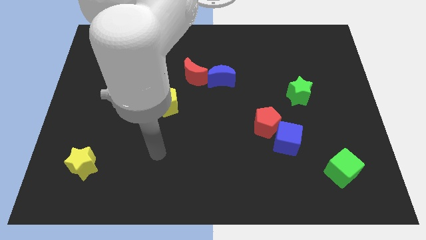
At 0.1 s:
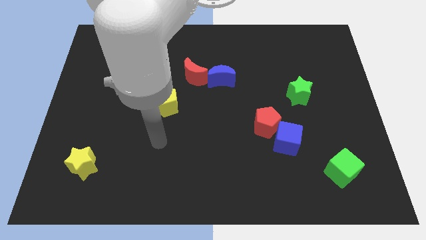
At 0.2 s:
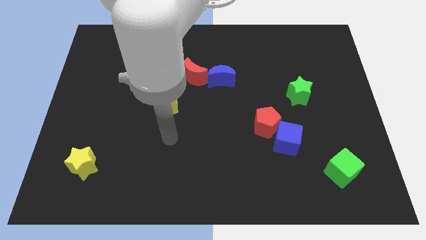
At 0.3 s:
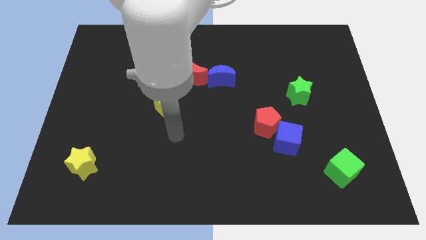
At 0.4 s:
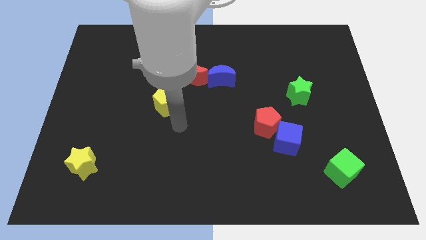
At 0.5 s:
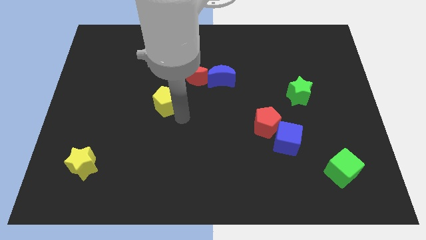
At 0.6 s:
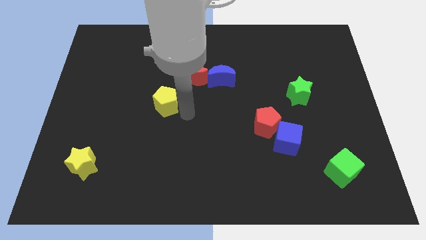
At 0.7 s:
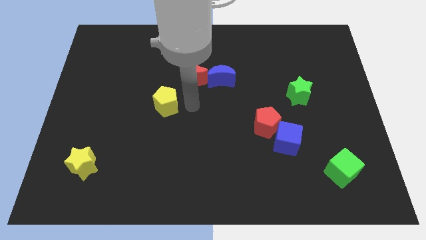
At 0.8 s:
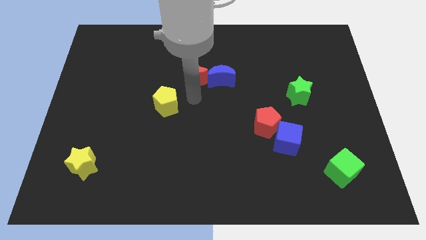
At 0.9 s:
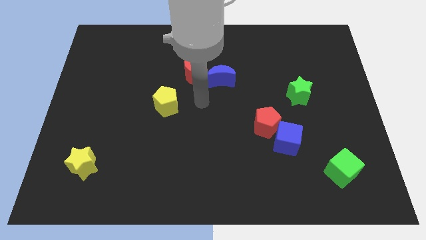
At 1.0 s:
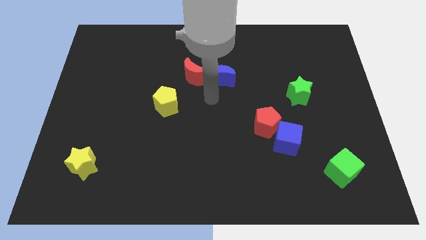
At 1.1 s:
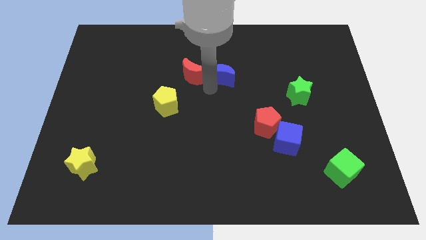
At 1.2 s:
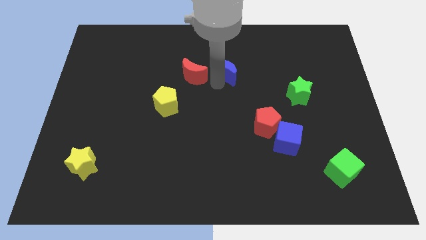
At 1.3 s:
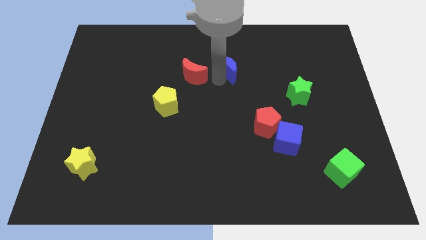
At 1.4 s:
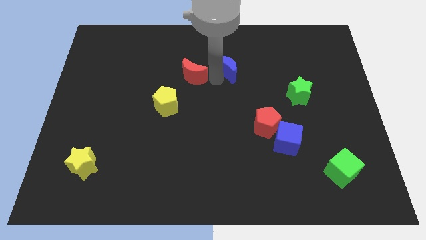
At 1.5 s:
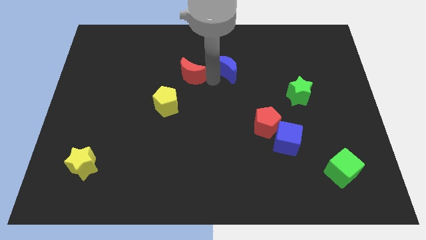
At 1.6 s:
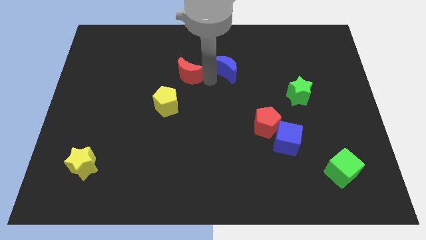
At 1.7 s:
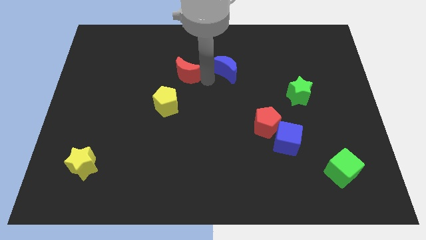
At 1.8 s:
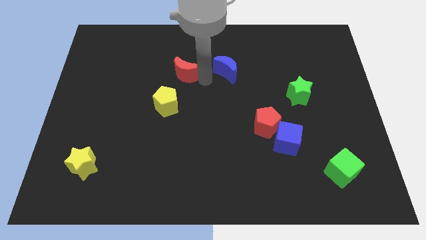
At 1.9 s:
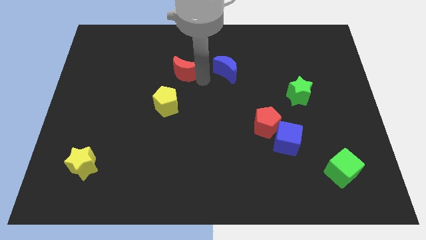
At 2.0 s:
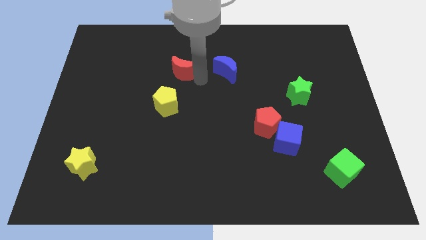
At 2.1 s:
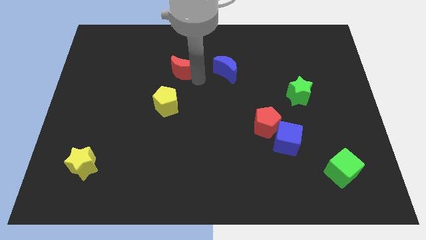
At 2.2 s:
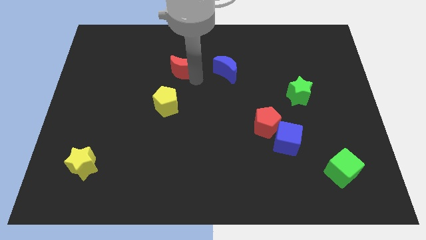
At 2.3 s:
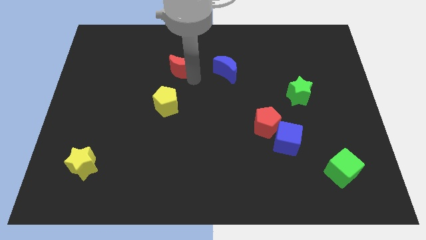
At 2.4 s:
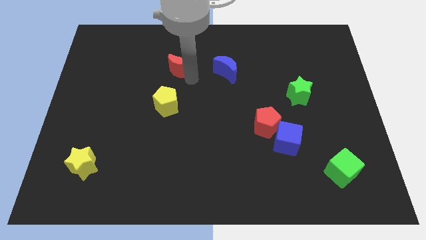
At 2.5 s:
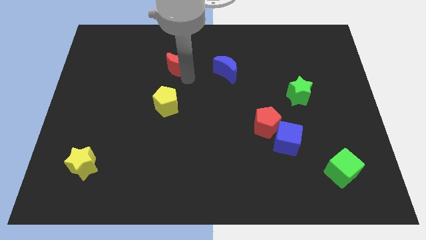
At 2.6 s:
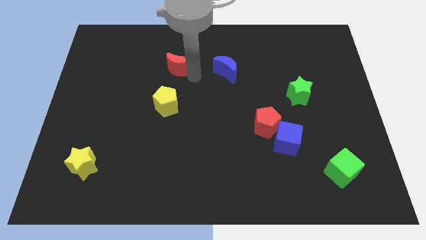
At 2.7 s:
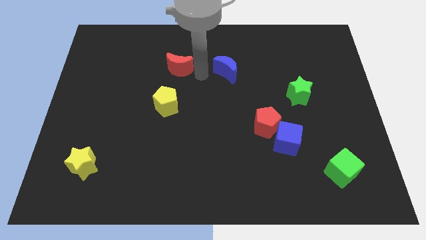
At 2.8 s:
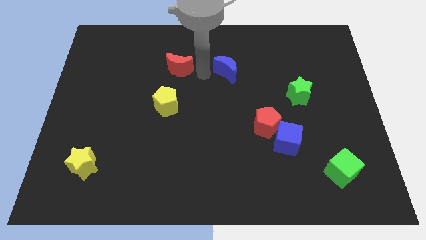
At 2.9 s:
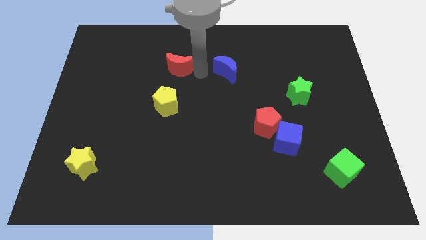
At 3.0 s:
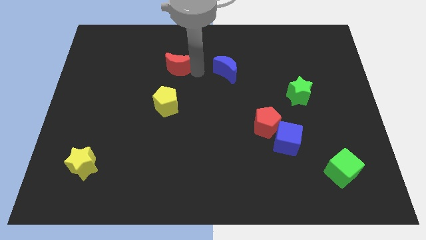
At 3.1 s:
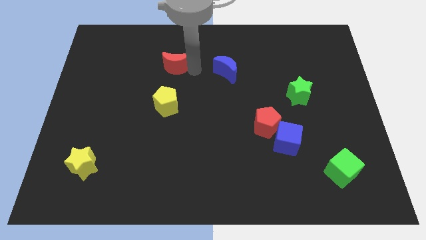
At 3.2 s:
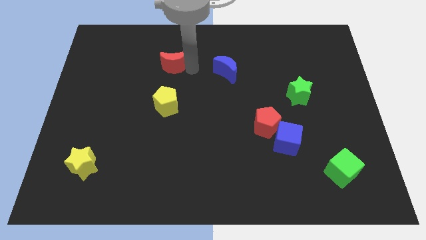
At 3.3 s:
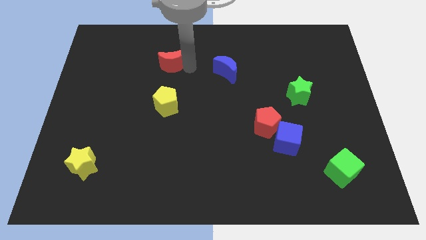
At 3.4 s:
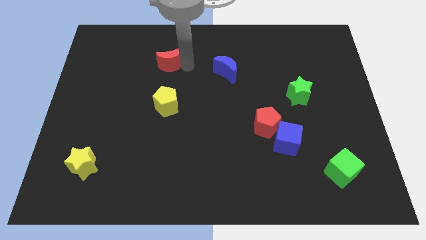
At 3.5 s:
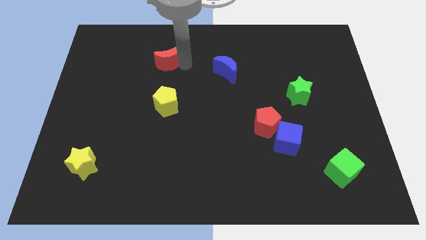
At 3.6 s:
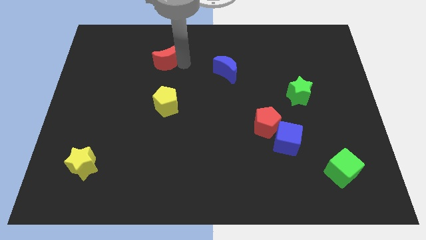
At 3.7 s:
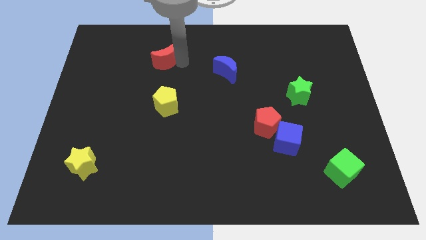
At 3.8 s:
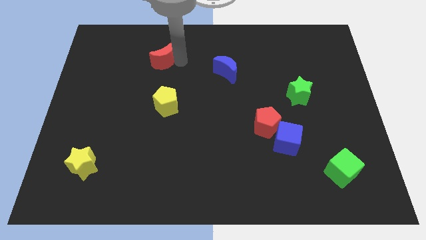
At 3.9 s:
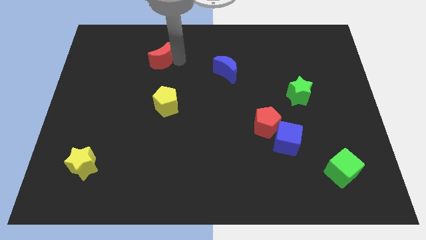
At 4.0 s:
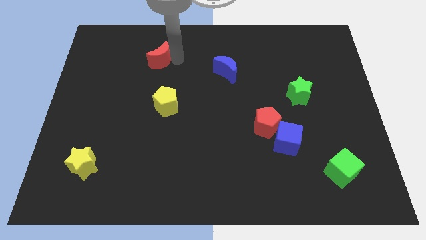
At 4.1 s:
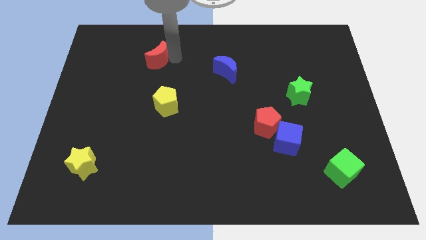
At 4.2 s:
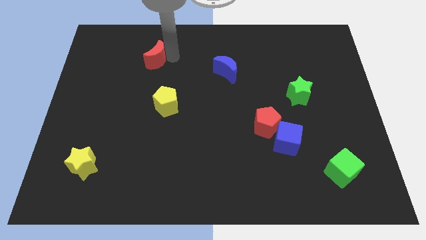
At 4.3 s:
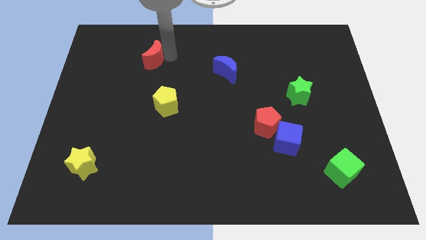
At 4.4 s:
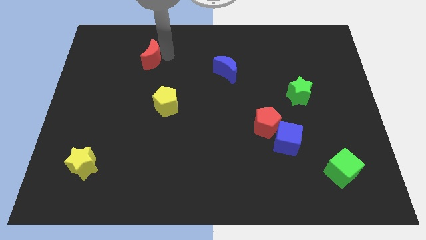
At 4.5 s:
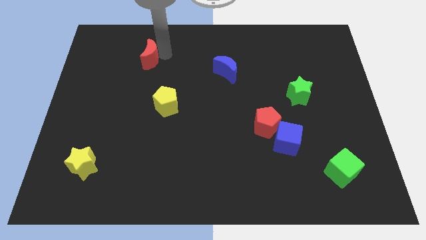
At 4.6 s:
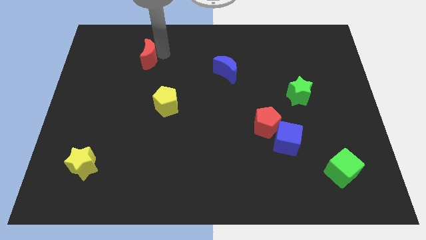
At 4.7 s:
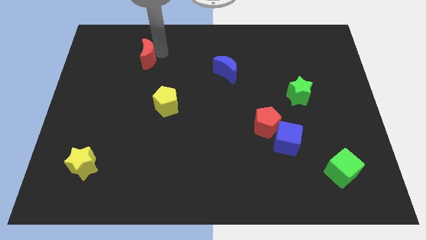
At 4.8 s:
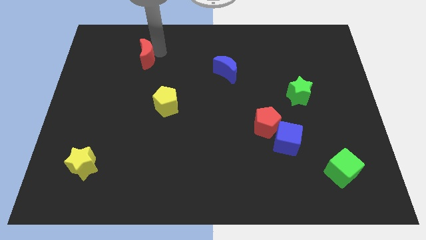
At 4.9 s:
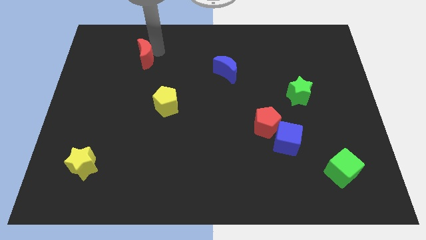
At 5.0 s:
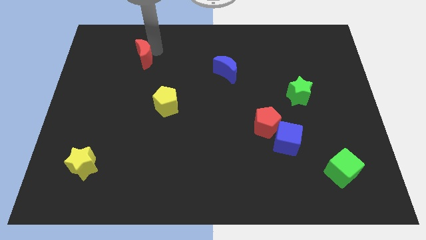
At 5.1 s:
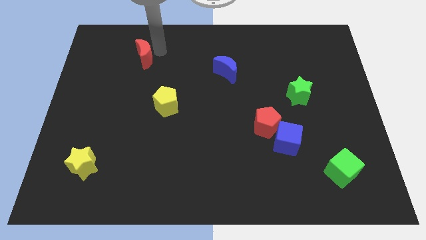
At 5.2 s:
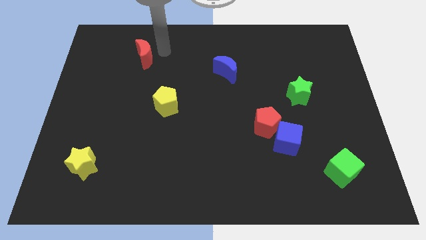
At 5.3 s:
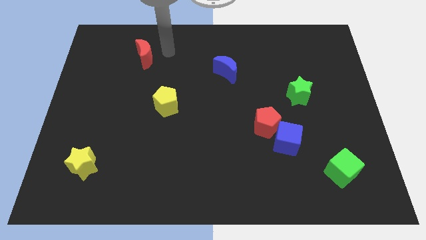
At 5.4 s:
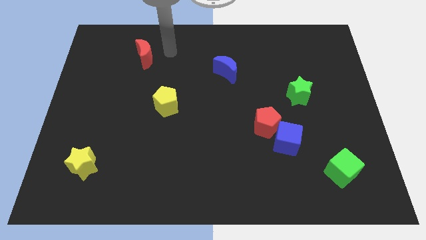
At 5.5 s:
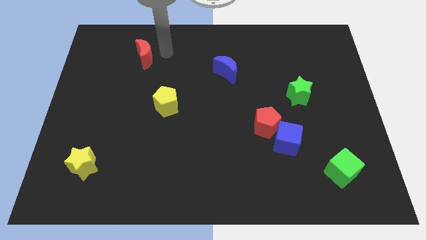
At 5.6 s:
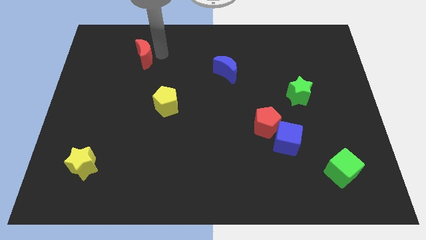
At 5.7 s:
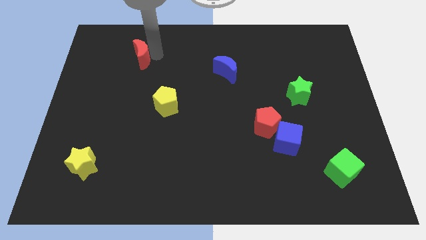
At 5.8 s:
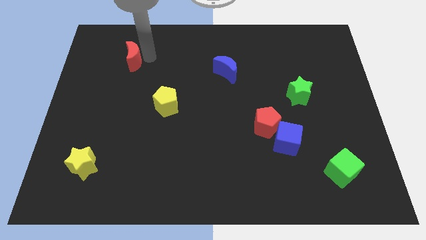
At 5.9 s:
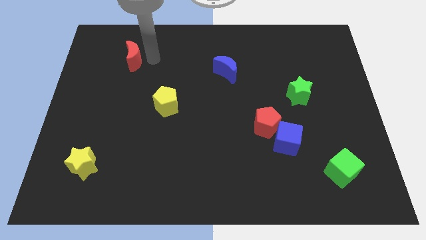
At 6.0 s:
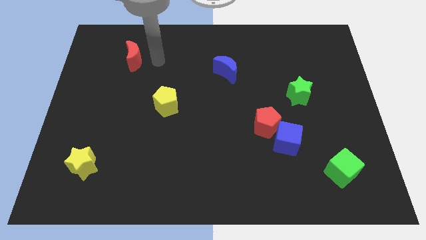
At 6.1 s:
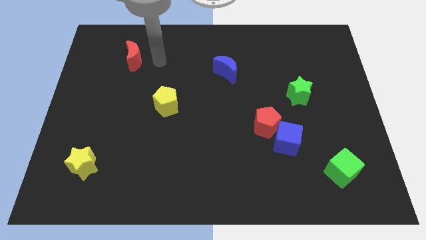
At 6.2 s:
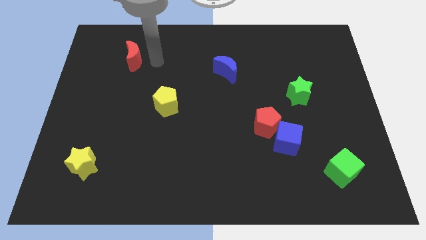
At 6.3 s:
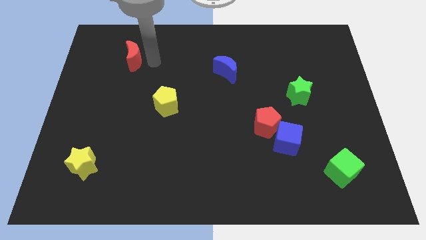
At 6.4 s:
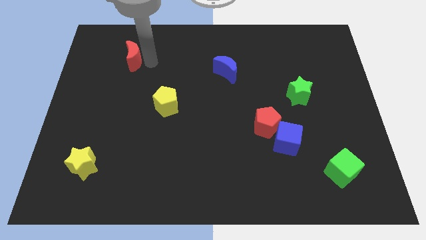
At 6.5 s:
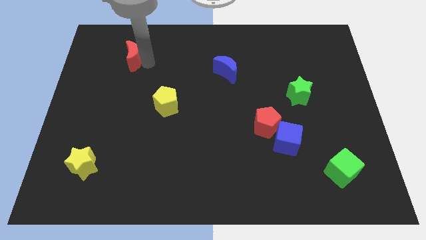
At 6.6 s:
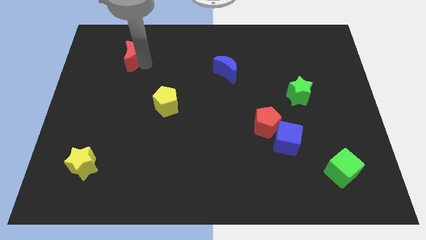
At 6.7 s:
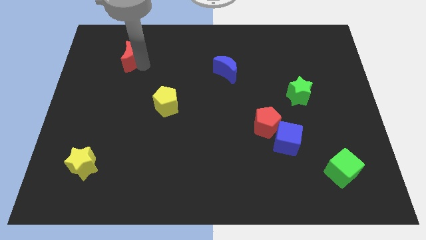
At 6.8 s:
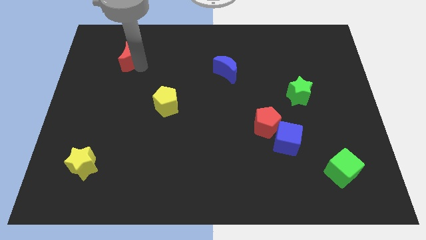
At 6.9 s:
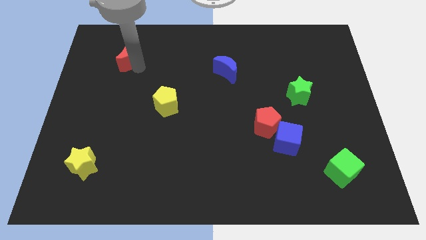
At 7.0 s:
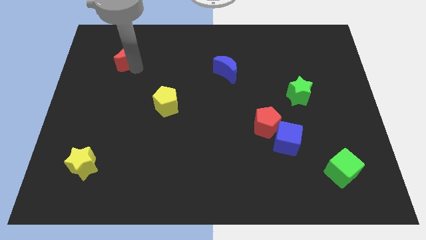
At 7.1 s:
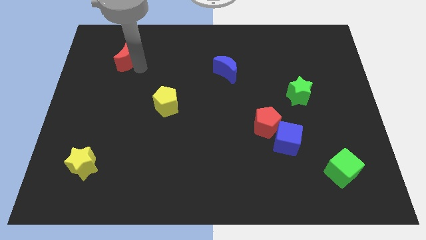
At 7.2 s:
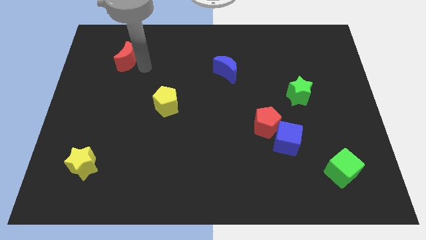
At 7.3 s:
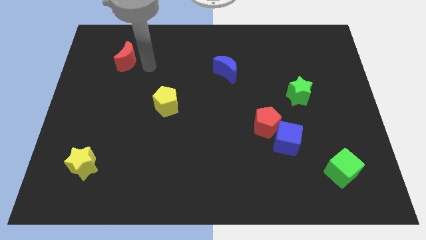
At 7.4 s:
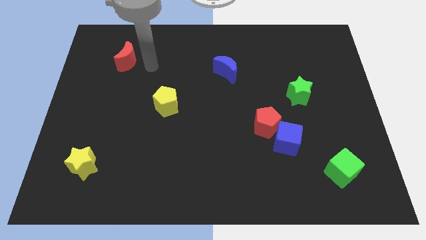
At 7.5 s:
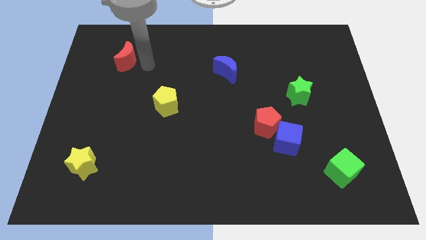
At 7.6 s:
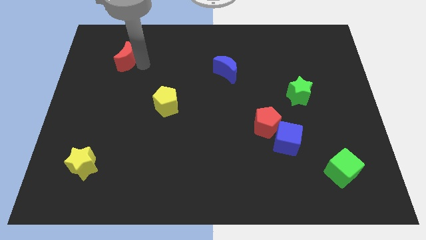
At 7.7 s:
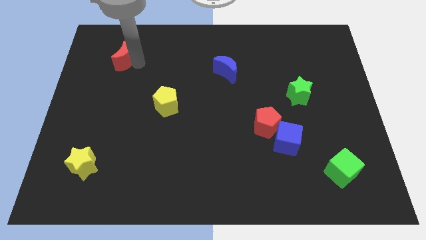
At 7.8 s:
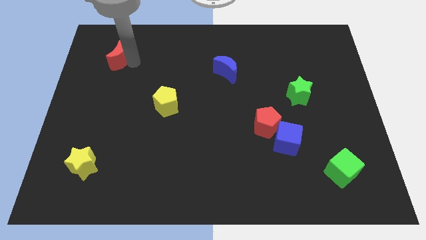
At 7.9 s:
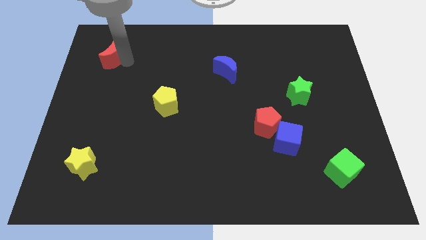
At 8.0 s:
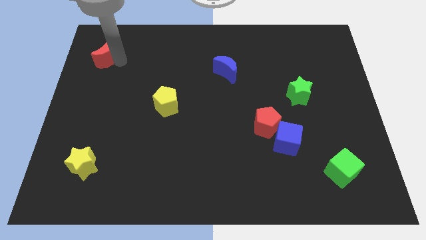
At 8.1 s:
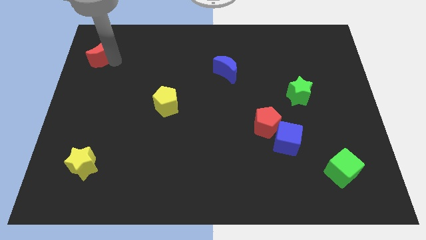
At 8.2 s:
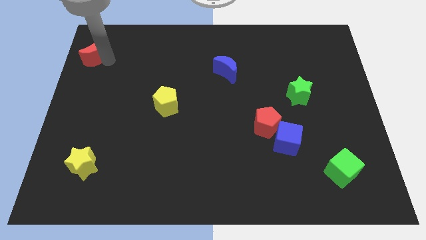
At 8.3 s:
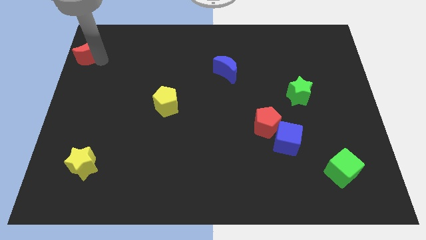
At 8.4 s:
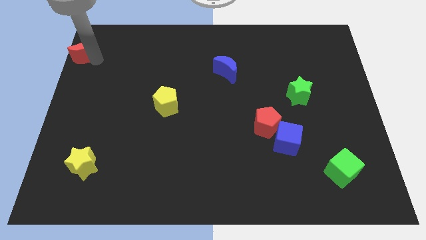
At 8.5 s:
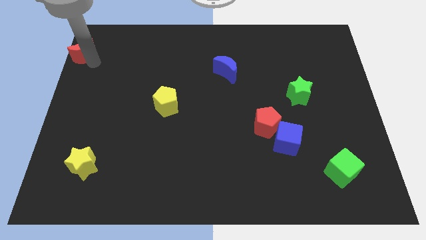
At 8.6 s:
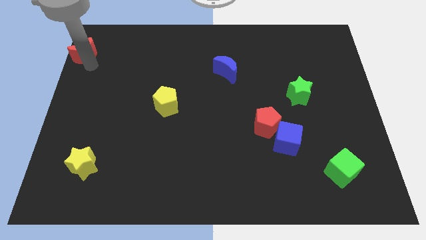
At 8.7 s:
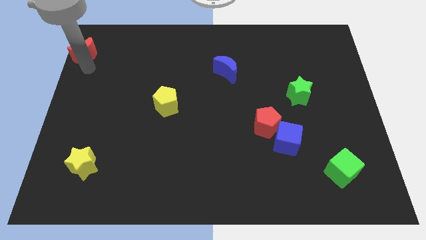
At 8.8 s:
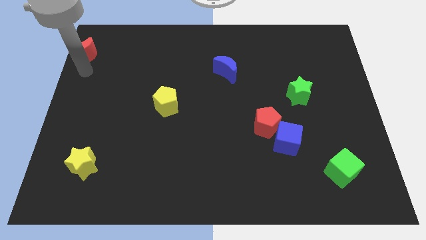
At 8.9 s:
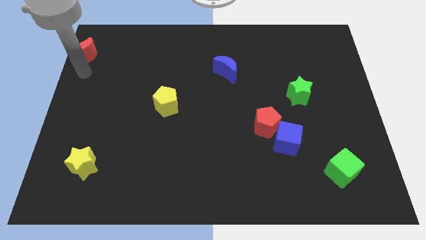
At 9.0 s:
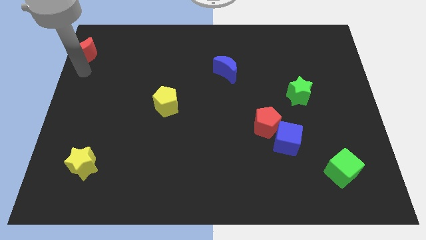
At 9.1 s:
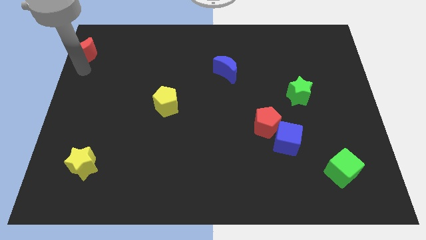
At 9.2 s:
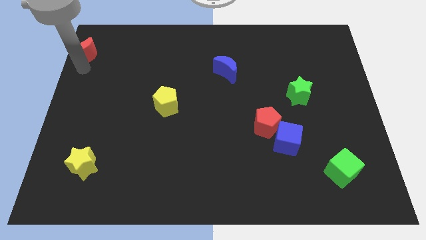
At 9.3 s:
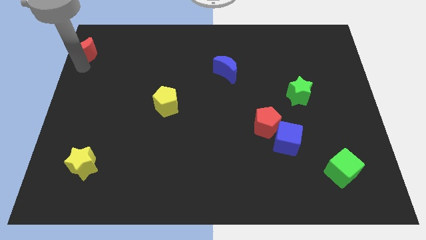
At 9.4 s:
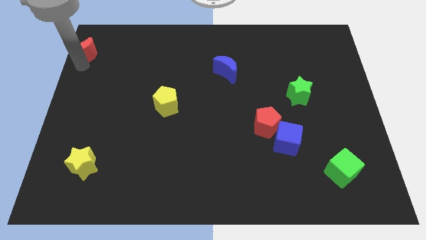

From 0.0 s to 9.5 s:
put the red moon to the upper left corner
